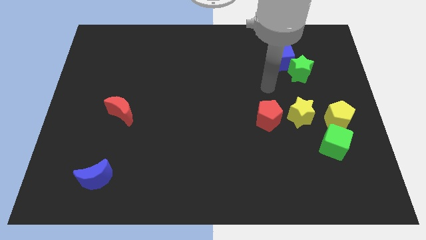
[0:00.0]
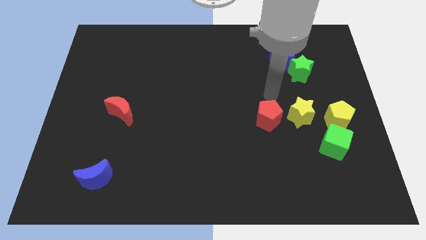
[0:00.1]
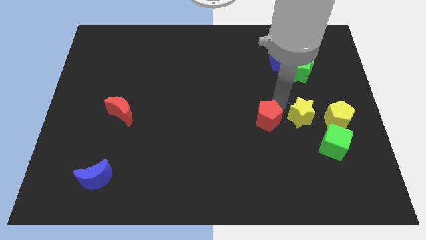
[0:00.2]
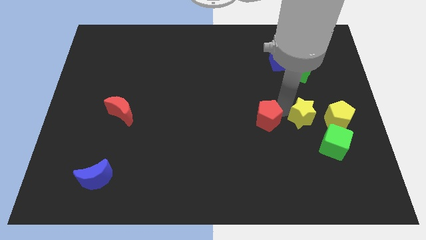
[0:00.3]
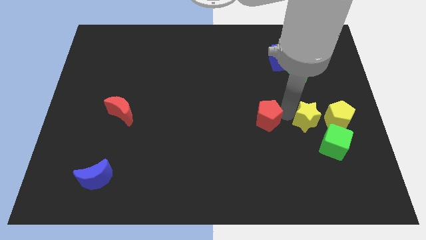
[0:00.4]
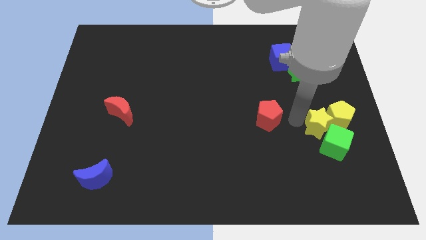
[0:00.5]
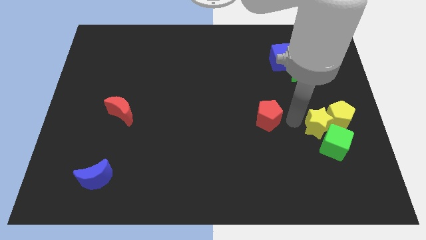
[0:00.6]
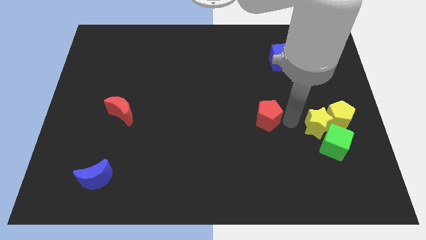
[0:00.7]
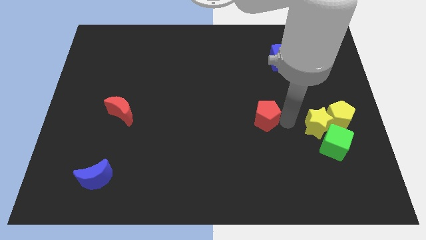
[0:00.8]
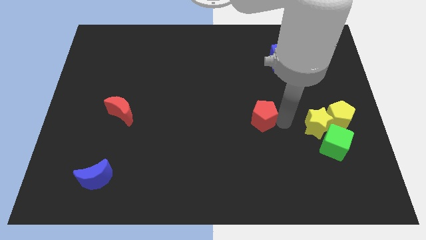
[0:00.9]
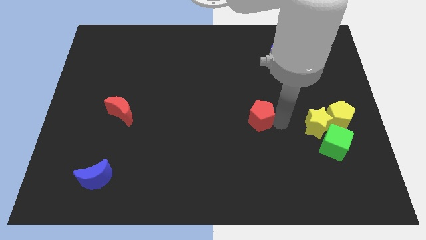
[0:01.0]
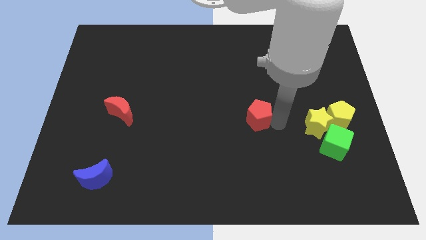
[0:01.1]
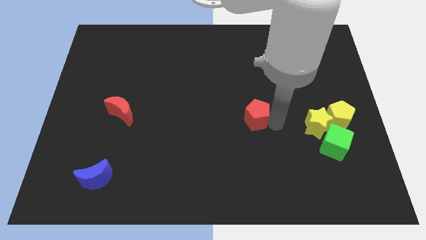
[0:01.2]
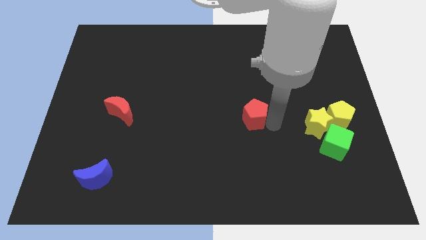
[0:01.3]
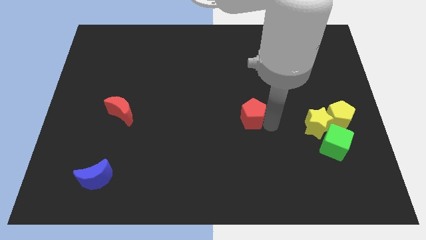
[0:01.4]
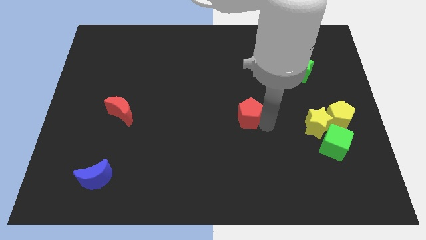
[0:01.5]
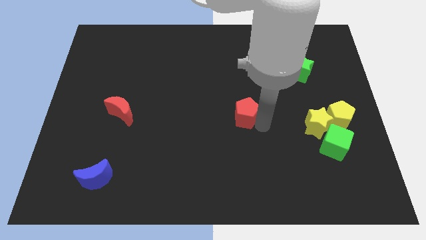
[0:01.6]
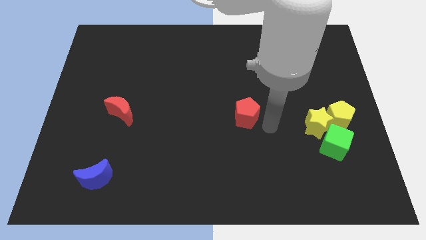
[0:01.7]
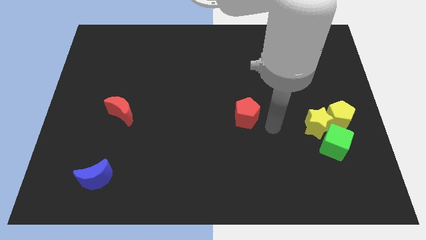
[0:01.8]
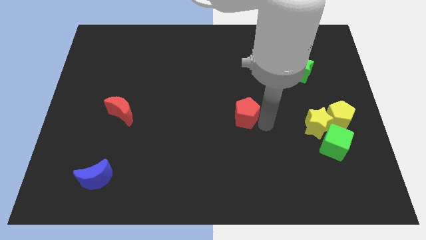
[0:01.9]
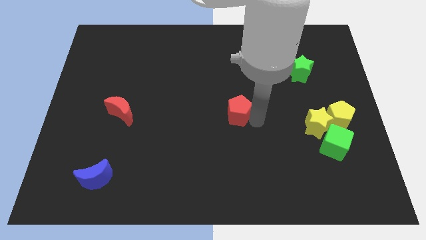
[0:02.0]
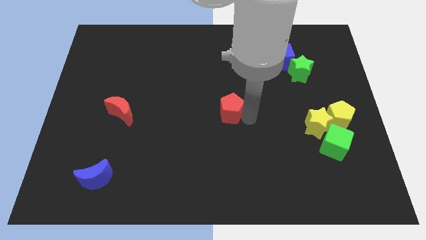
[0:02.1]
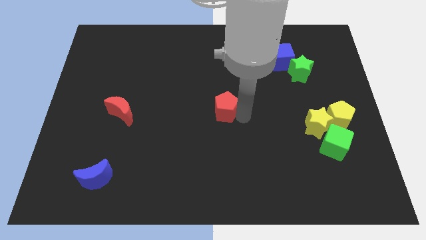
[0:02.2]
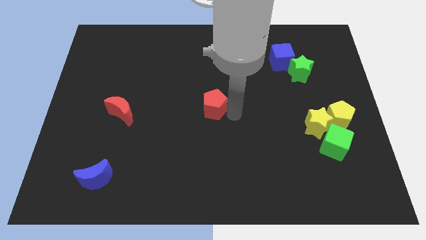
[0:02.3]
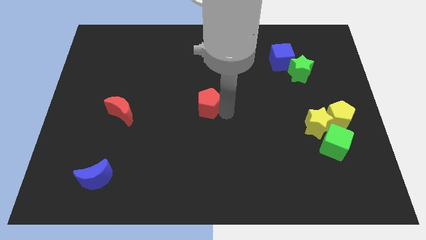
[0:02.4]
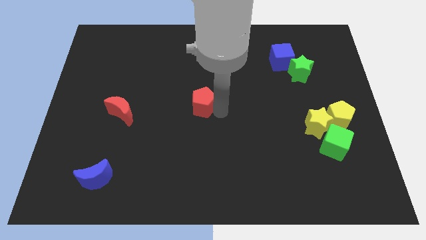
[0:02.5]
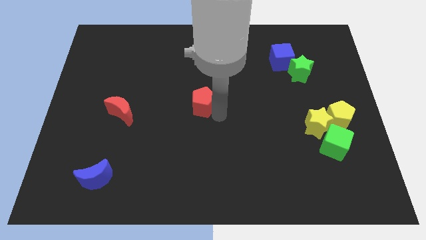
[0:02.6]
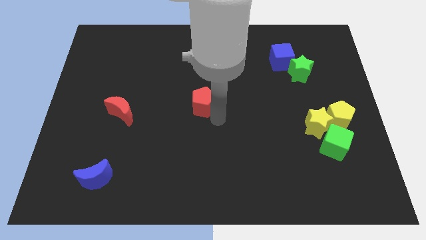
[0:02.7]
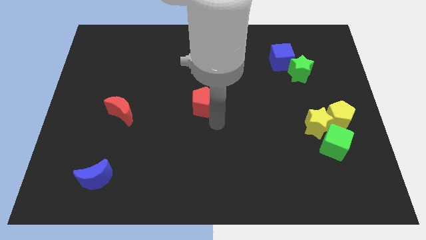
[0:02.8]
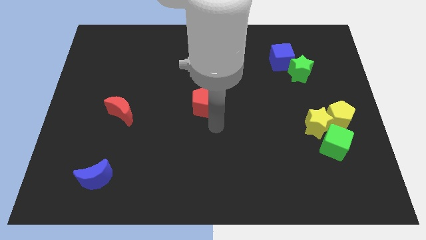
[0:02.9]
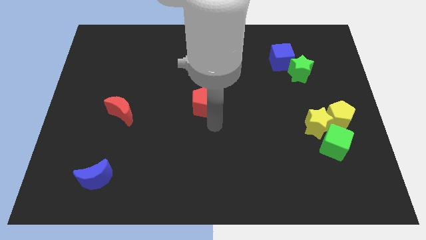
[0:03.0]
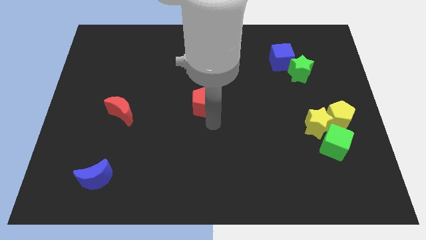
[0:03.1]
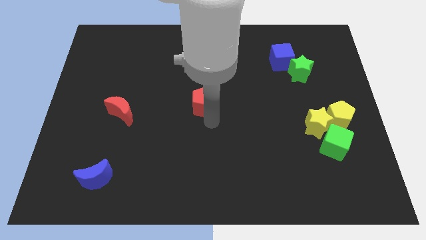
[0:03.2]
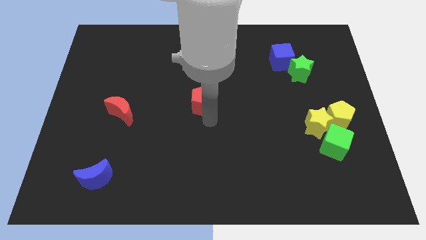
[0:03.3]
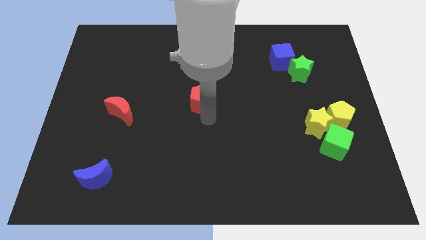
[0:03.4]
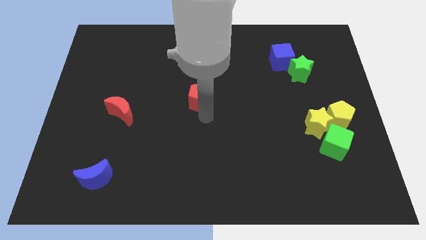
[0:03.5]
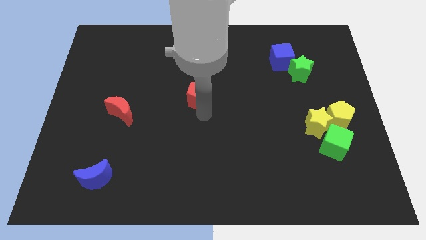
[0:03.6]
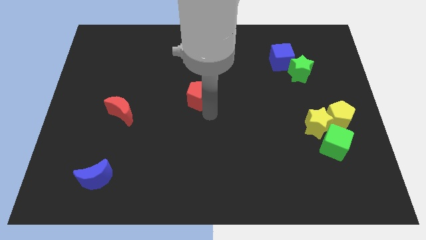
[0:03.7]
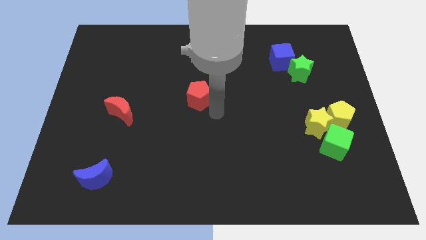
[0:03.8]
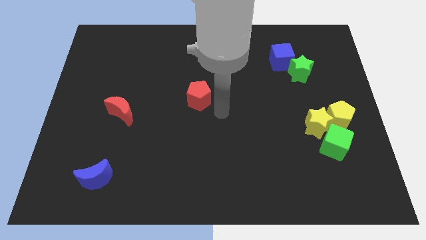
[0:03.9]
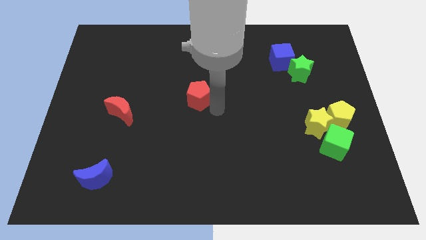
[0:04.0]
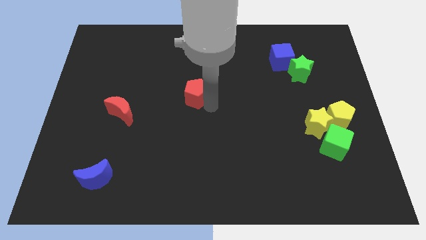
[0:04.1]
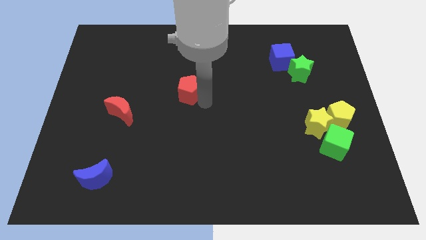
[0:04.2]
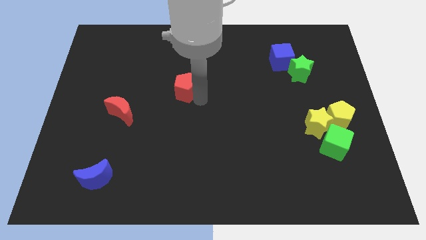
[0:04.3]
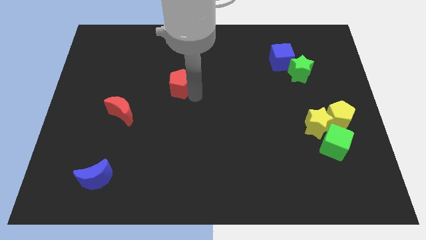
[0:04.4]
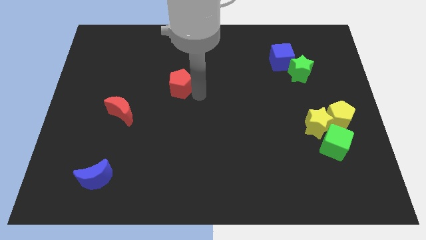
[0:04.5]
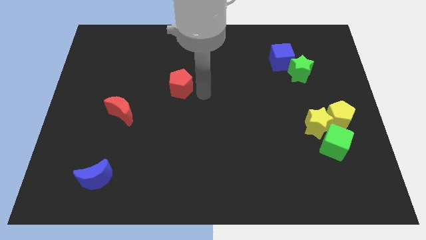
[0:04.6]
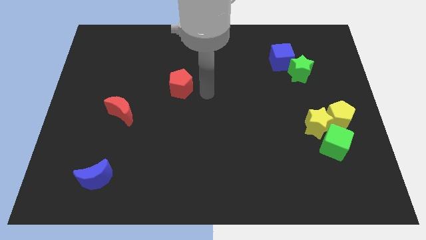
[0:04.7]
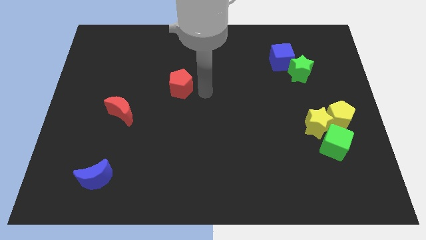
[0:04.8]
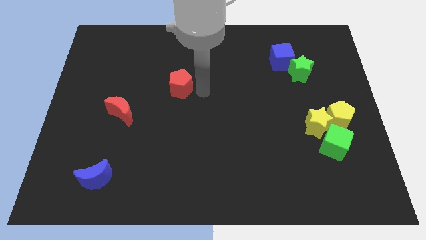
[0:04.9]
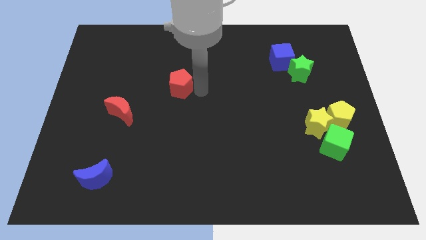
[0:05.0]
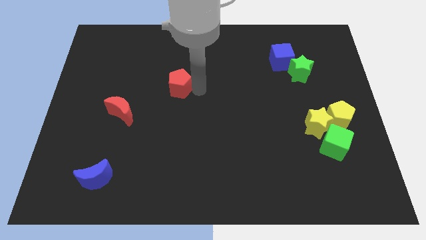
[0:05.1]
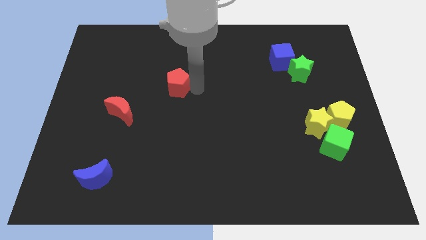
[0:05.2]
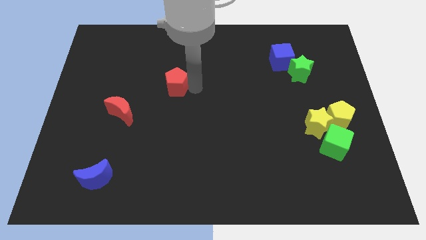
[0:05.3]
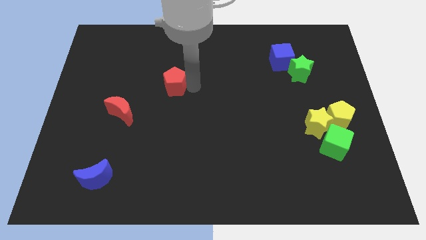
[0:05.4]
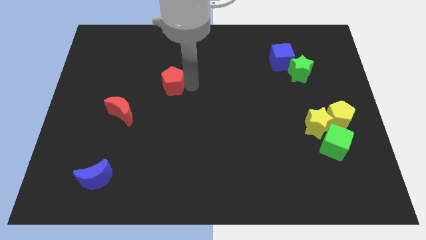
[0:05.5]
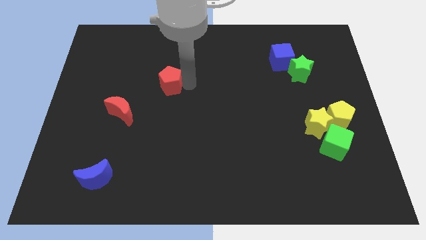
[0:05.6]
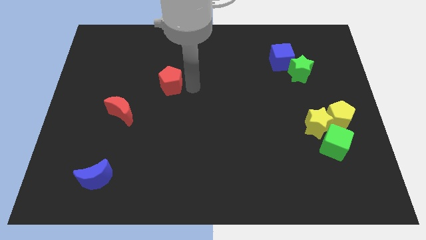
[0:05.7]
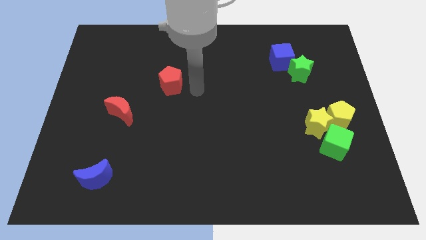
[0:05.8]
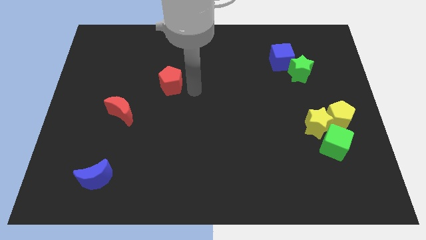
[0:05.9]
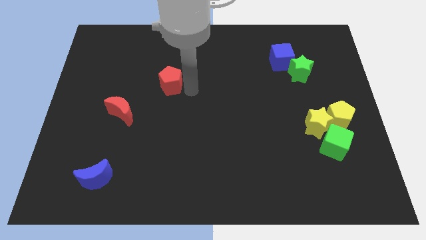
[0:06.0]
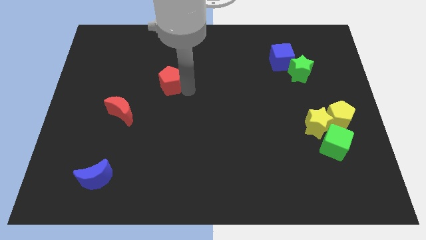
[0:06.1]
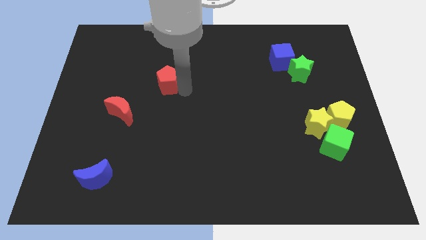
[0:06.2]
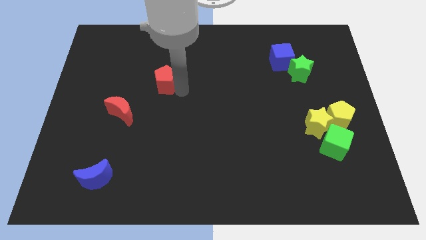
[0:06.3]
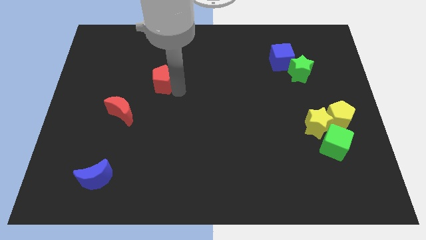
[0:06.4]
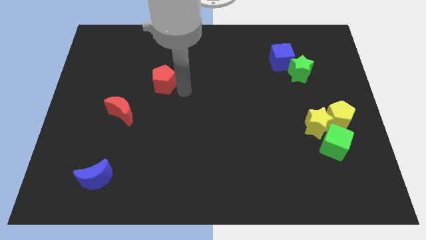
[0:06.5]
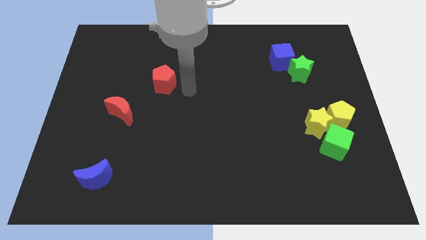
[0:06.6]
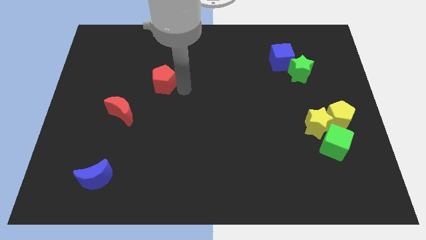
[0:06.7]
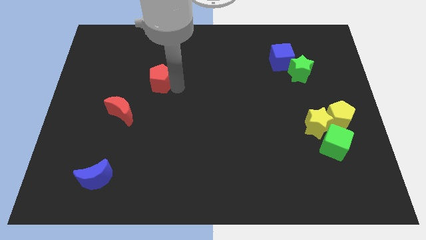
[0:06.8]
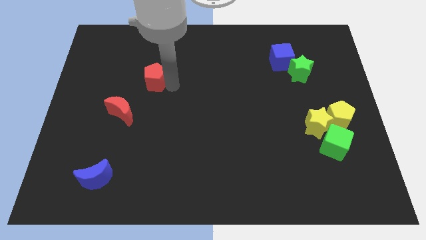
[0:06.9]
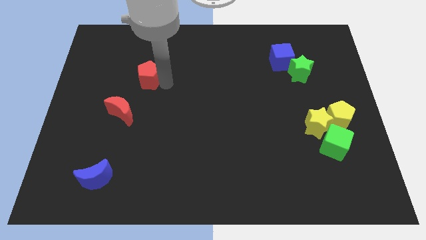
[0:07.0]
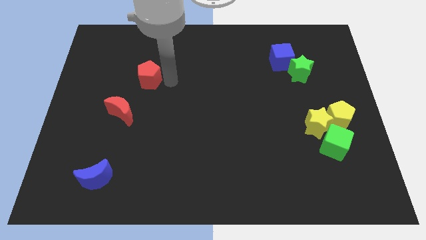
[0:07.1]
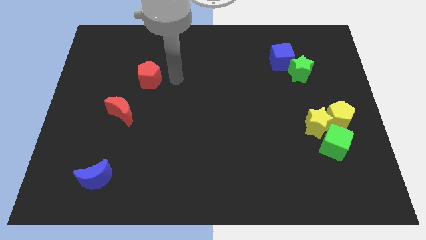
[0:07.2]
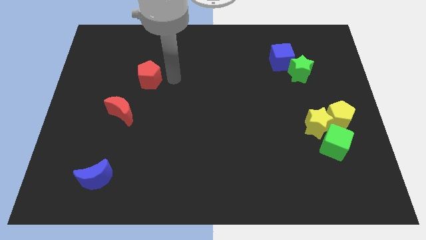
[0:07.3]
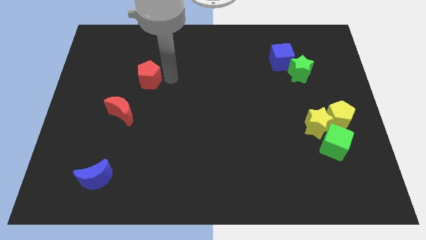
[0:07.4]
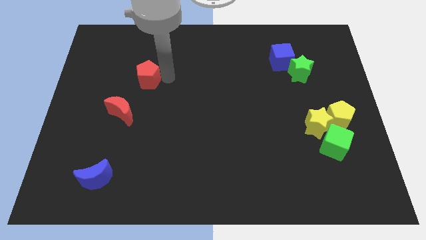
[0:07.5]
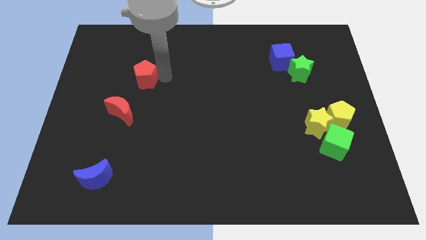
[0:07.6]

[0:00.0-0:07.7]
push the red pentagon above the red moon
